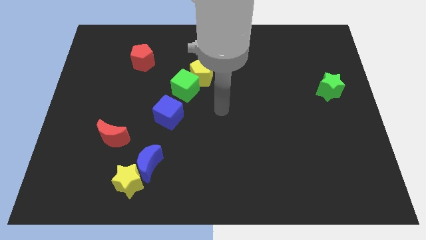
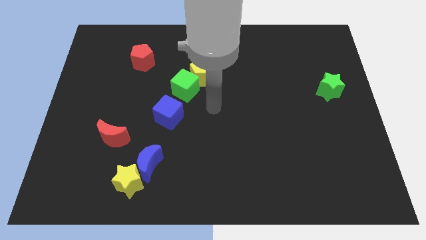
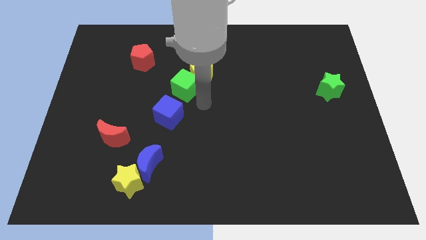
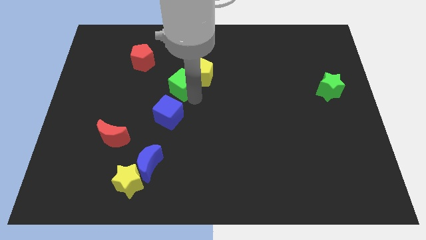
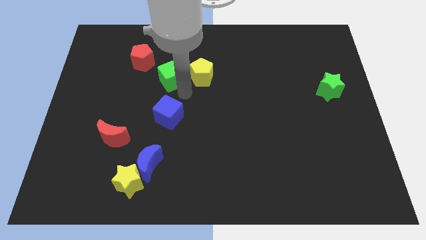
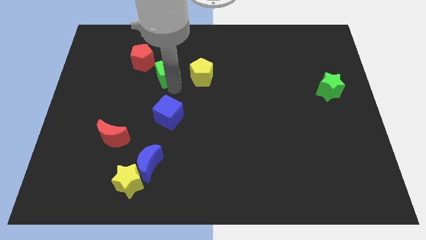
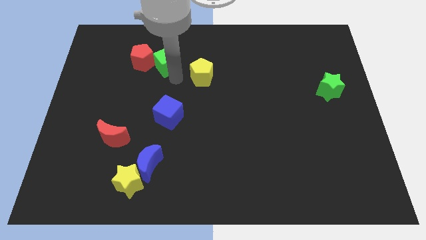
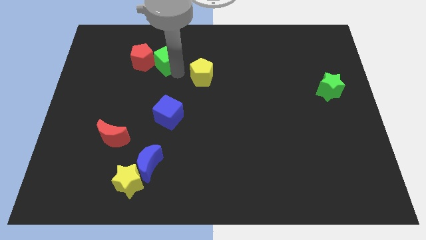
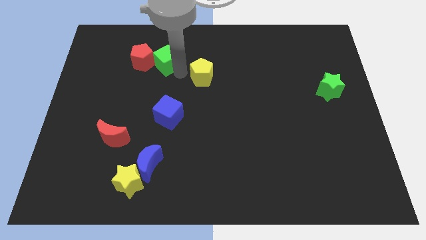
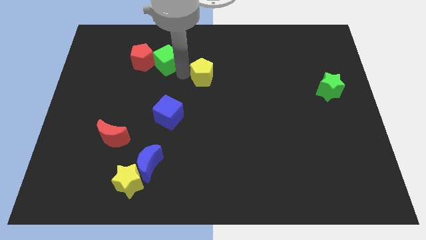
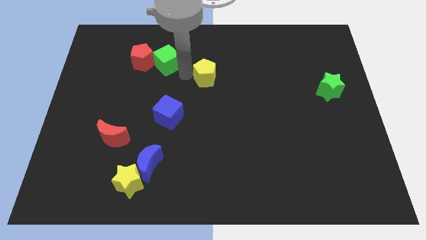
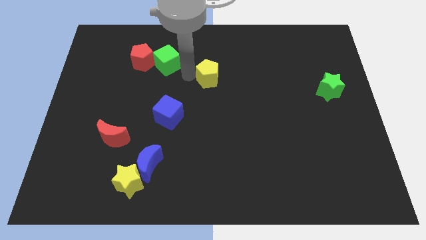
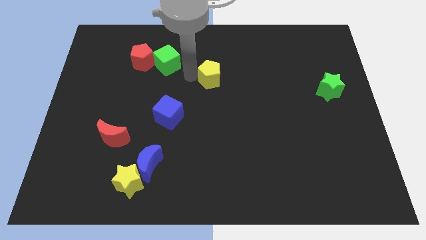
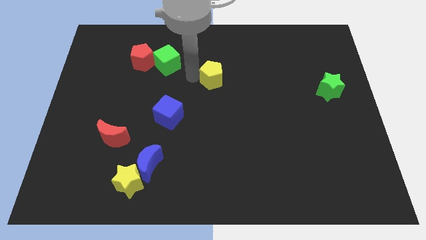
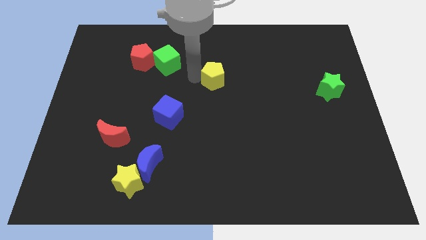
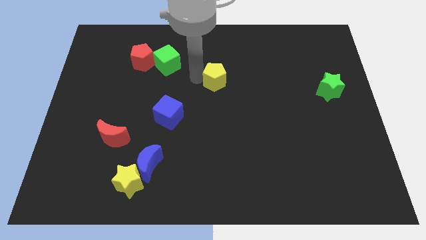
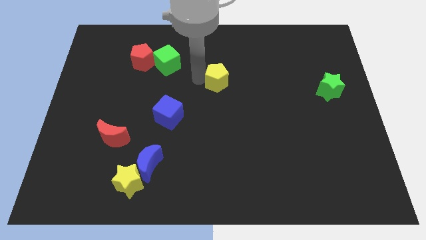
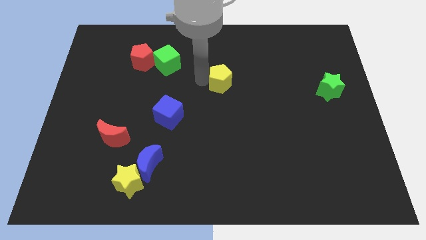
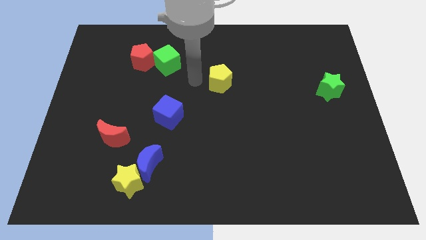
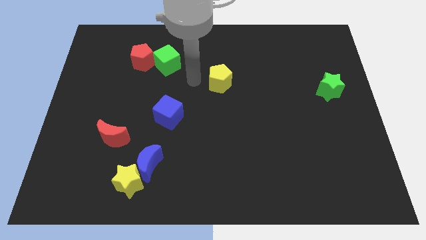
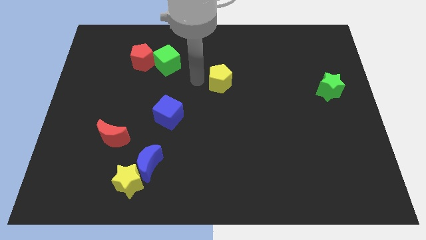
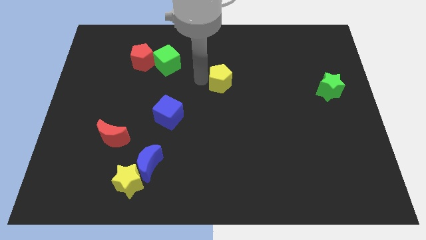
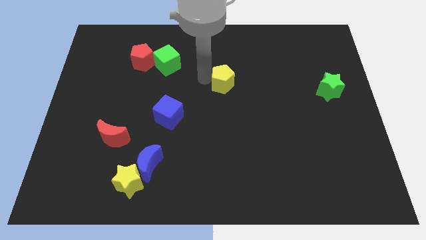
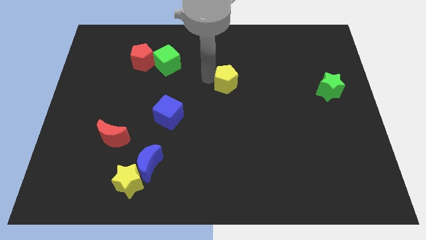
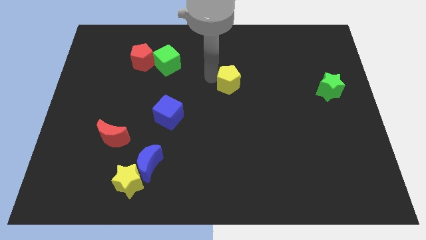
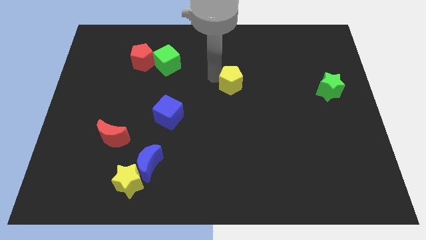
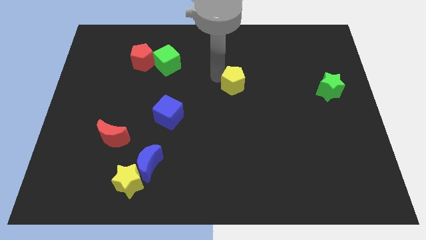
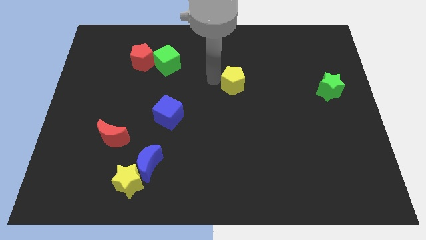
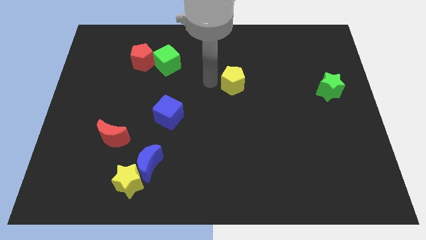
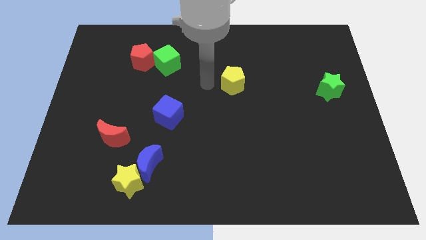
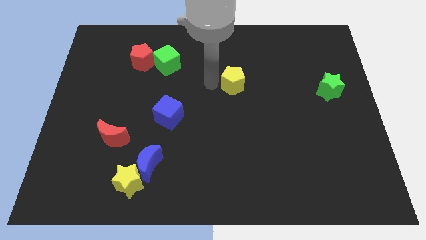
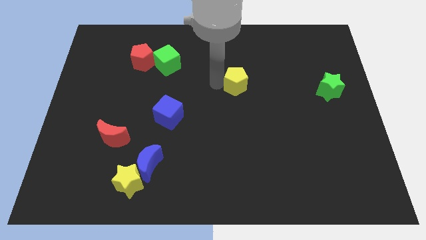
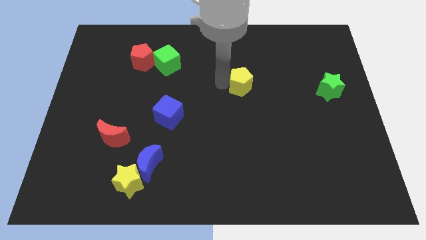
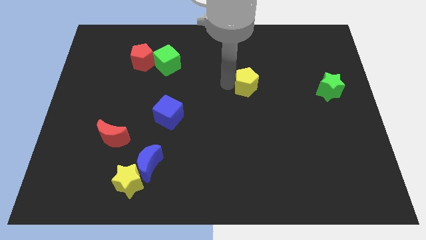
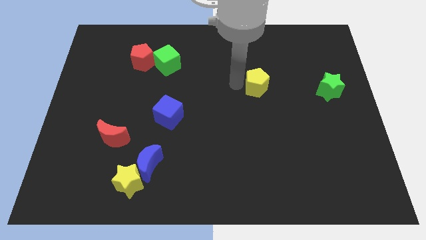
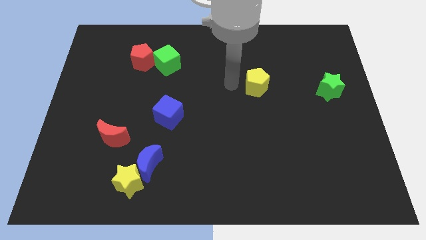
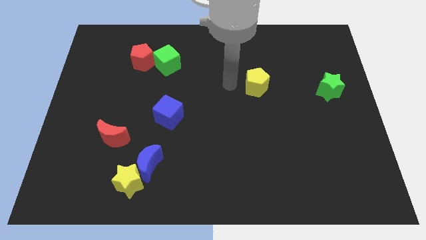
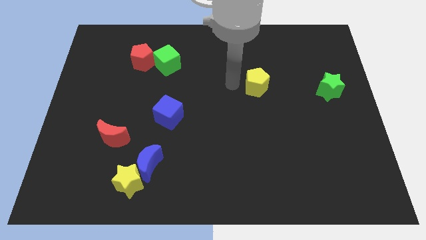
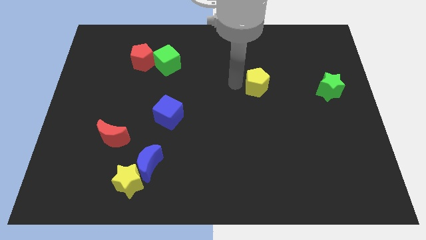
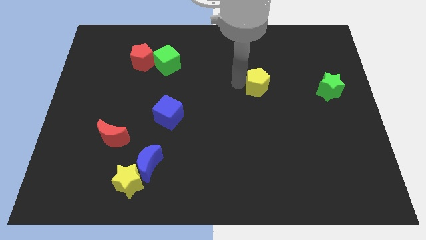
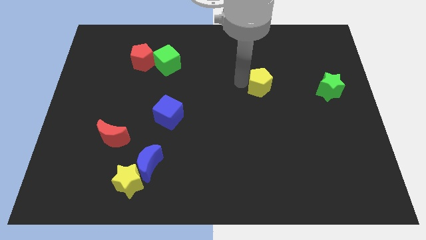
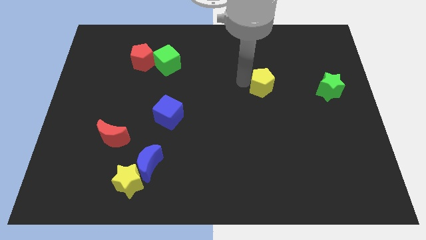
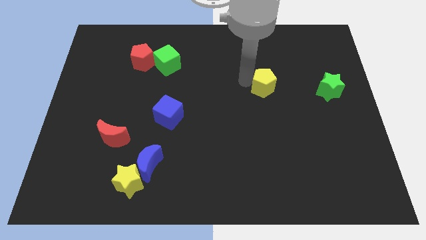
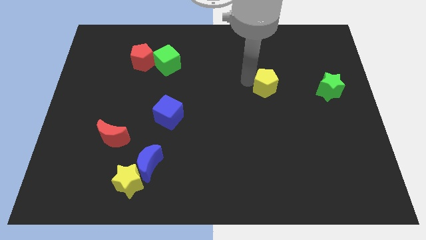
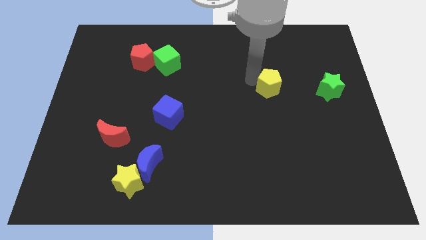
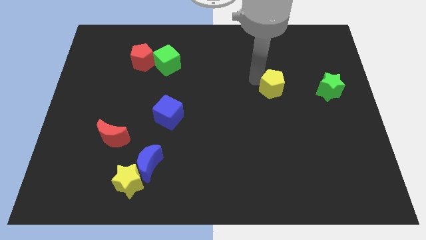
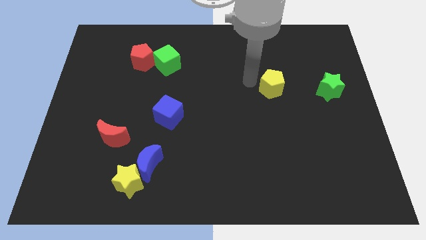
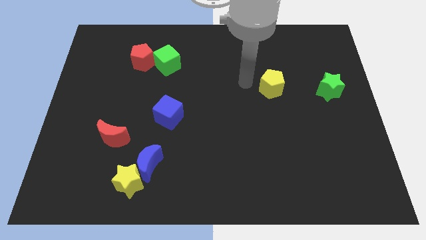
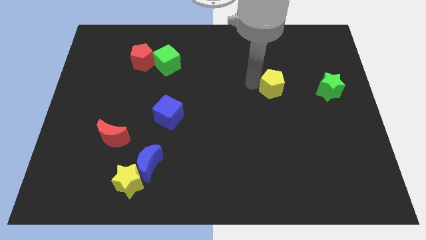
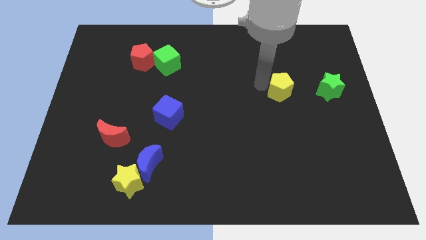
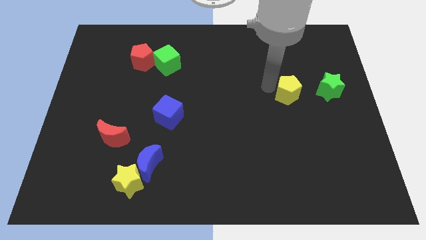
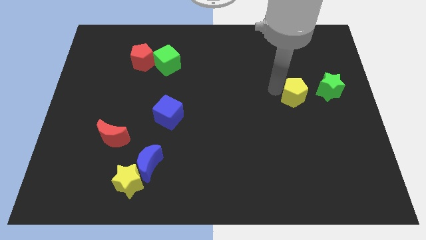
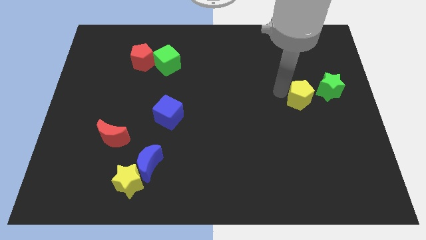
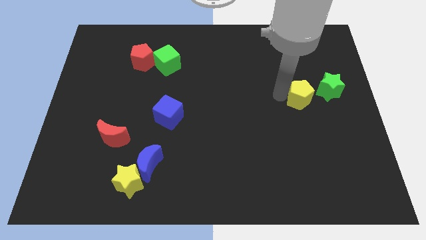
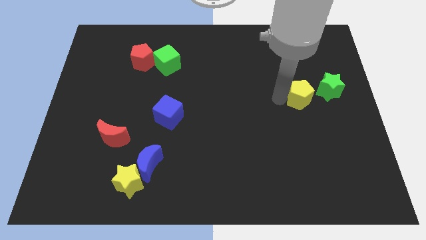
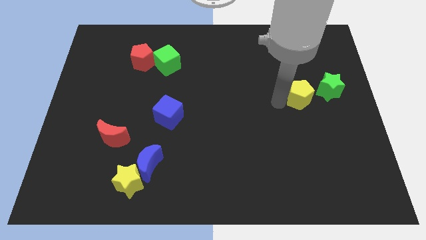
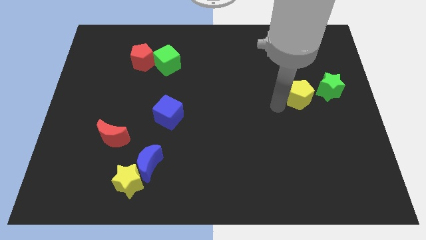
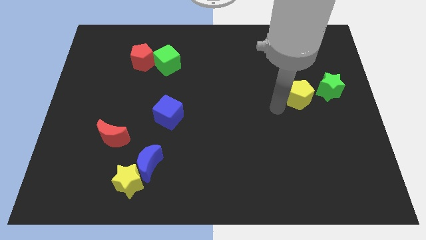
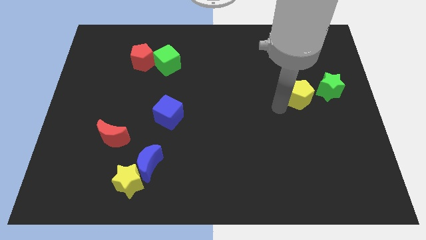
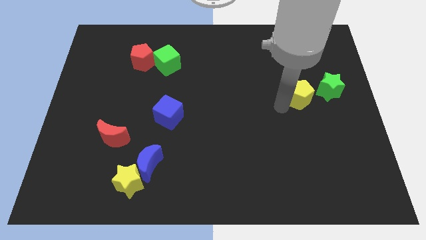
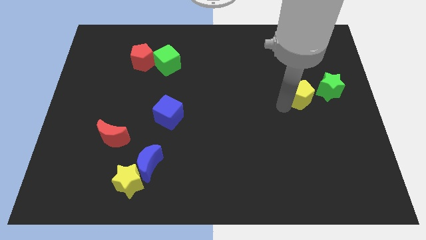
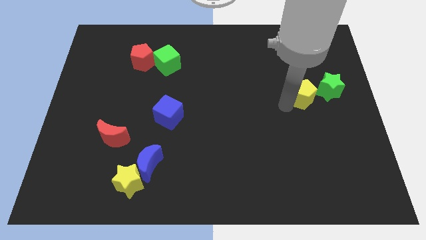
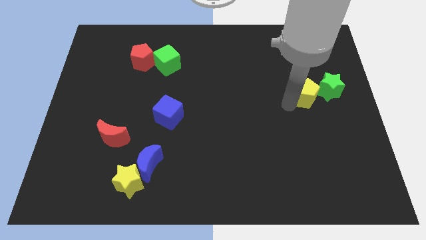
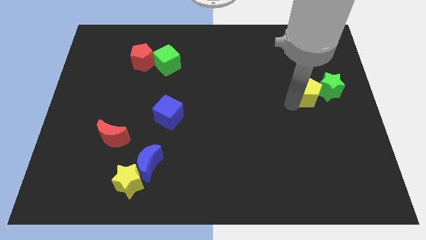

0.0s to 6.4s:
slide the yellow pentagon towards the green star

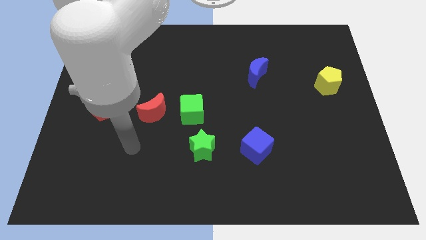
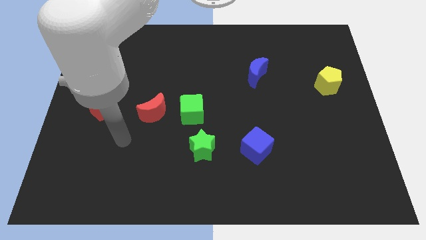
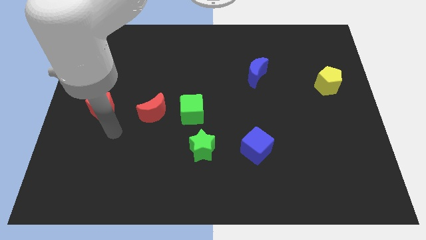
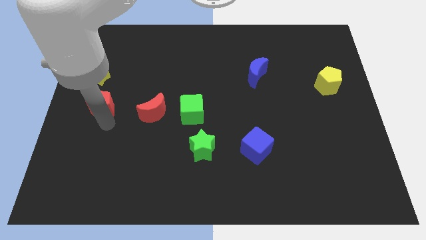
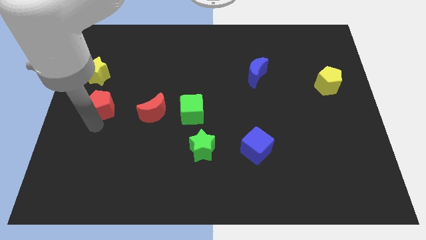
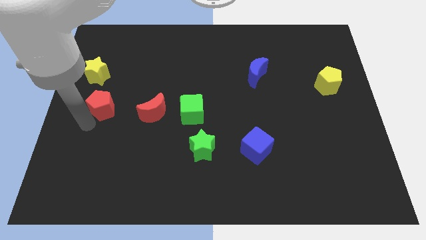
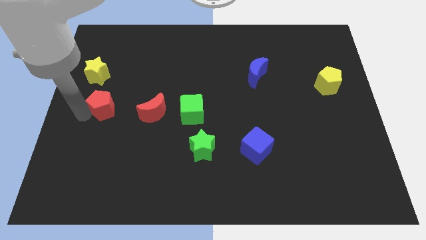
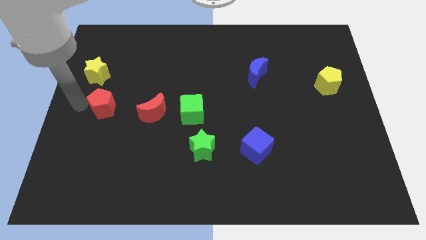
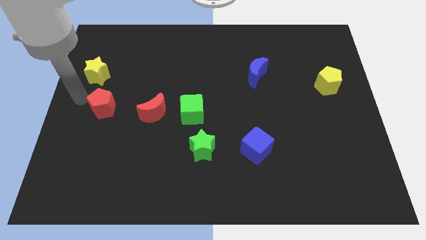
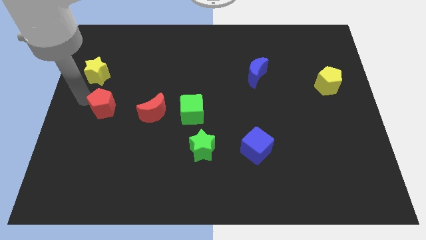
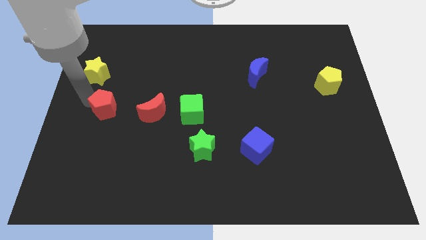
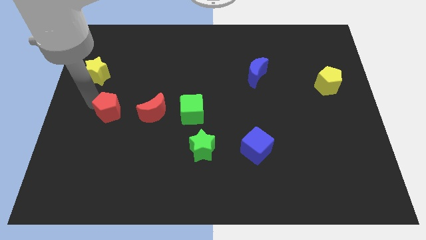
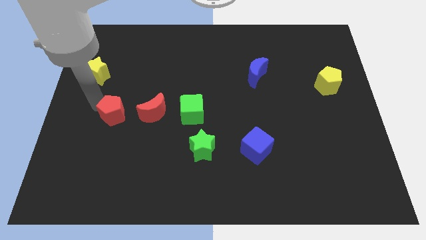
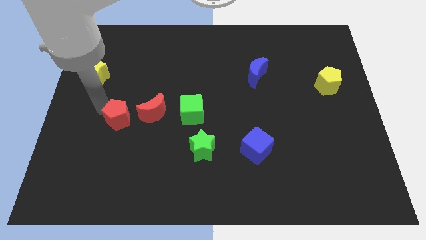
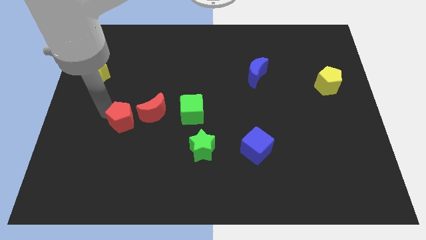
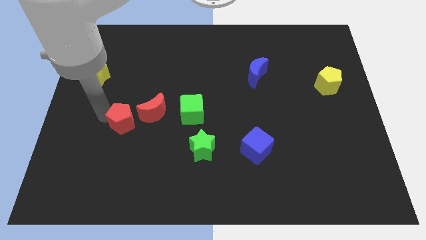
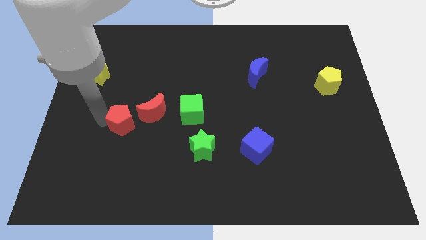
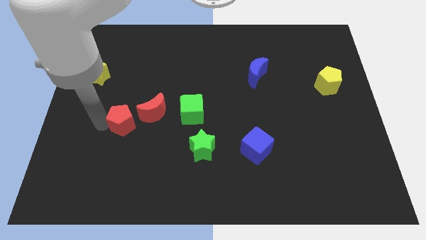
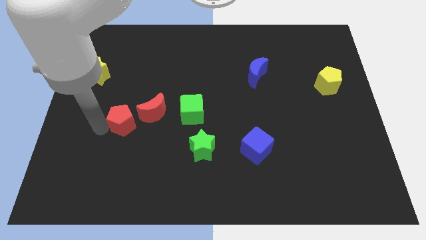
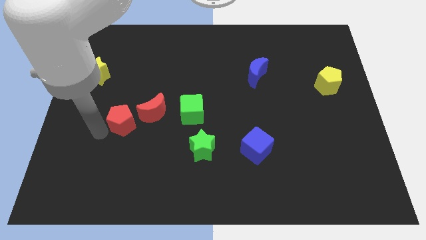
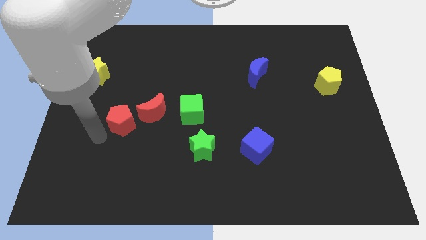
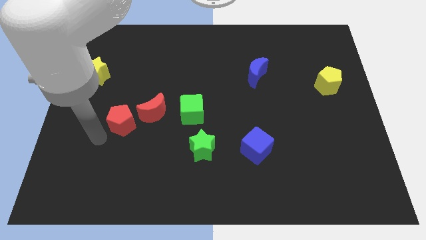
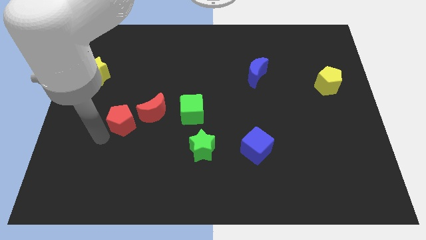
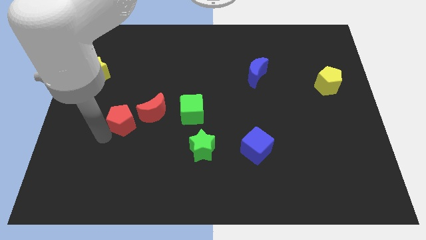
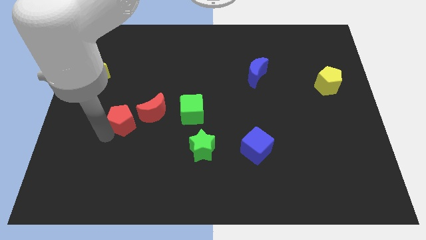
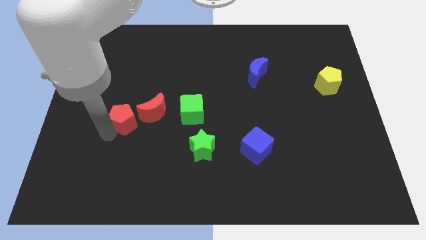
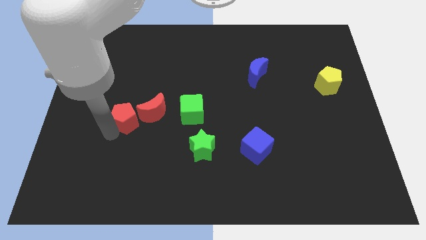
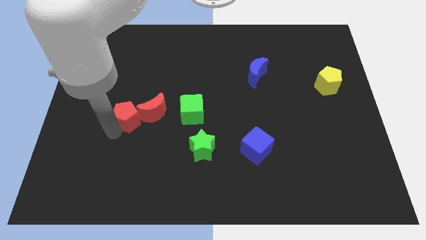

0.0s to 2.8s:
move the red pentagon close to the red moon
